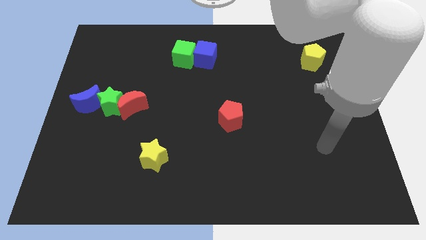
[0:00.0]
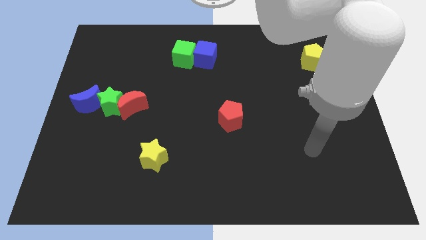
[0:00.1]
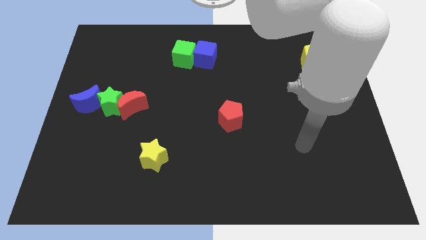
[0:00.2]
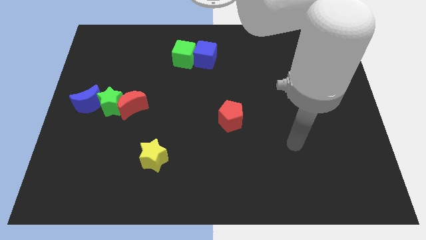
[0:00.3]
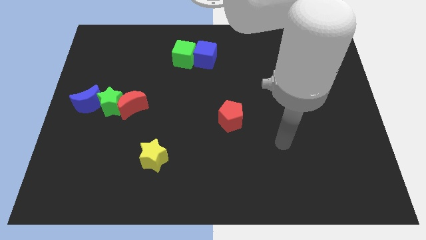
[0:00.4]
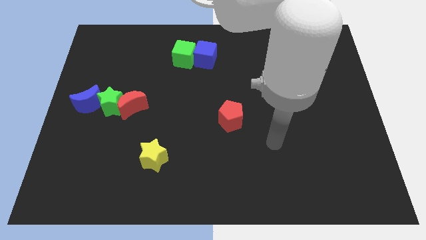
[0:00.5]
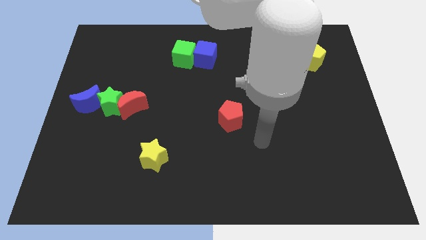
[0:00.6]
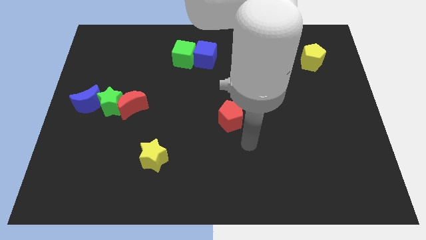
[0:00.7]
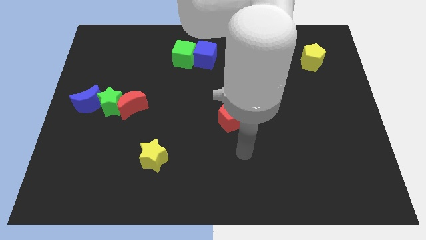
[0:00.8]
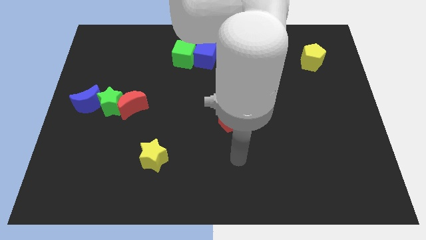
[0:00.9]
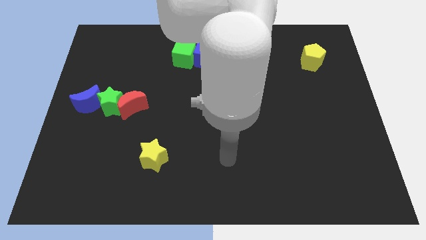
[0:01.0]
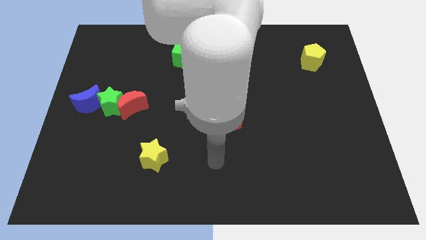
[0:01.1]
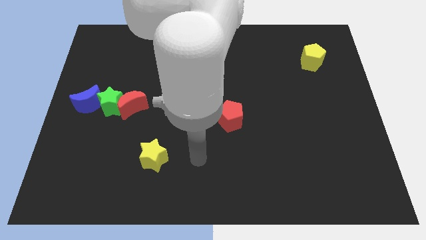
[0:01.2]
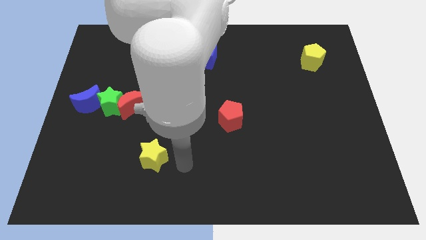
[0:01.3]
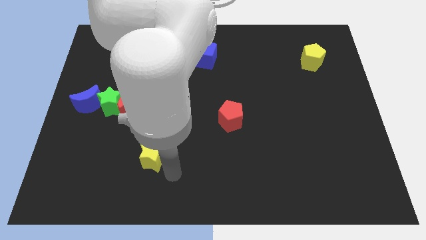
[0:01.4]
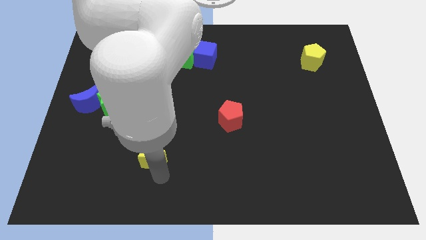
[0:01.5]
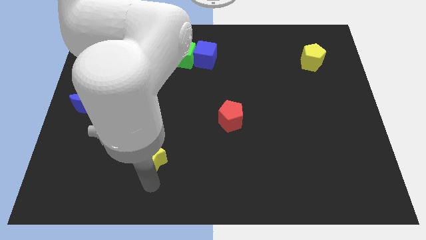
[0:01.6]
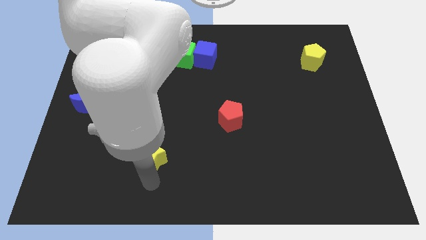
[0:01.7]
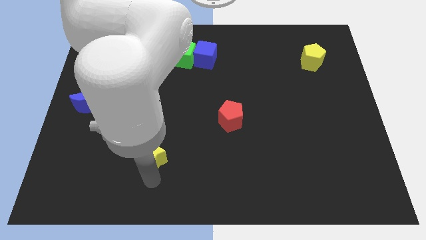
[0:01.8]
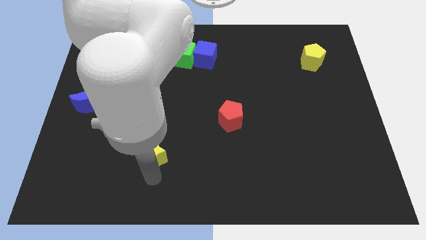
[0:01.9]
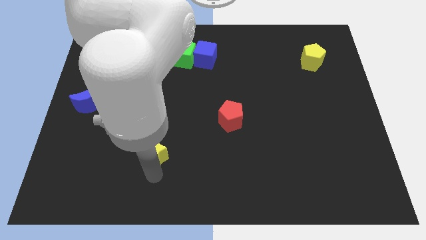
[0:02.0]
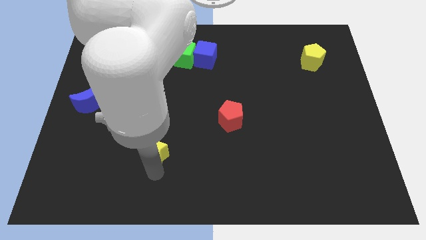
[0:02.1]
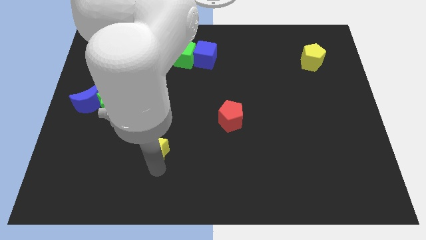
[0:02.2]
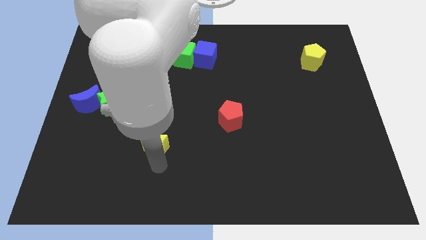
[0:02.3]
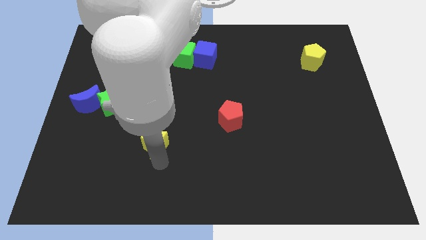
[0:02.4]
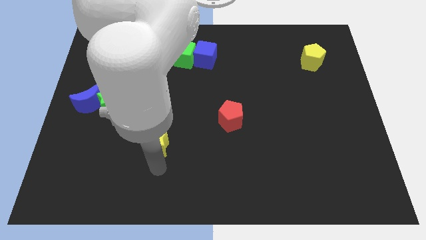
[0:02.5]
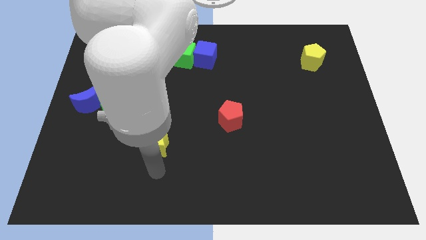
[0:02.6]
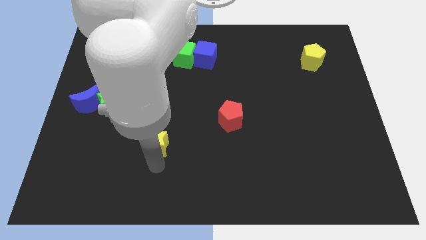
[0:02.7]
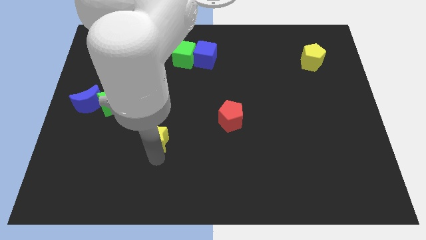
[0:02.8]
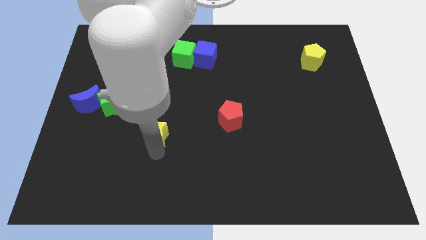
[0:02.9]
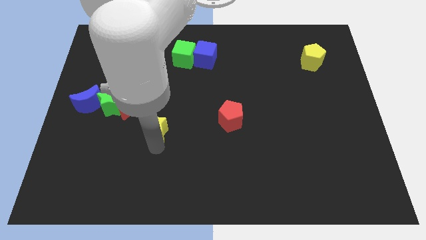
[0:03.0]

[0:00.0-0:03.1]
slightly slide the yellow star upwards

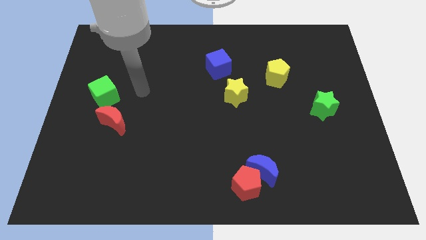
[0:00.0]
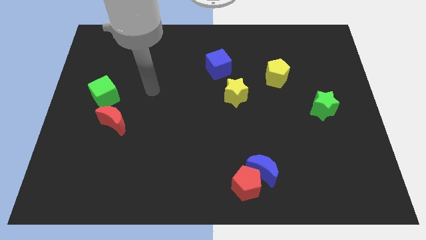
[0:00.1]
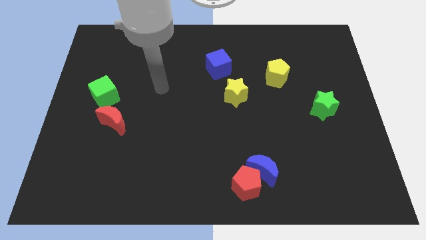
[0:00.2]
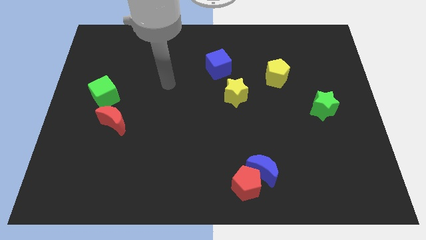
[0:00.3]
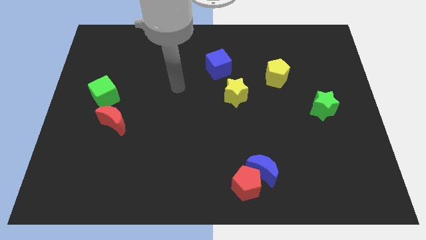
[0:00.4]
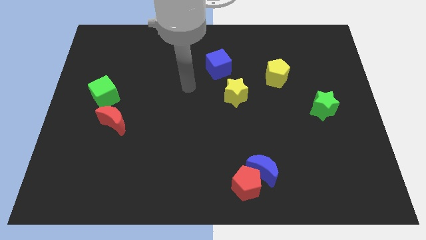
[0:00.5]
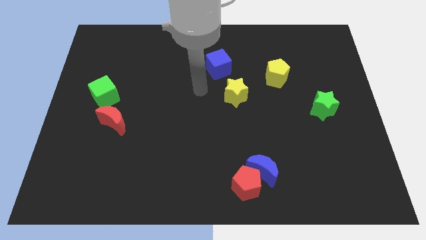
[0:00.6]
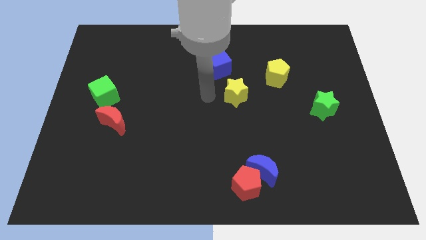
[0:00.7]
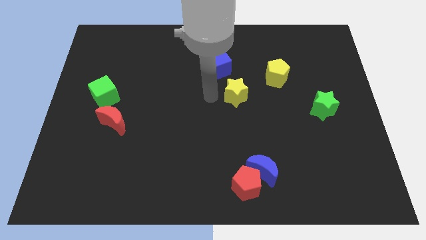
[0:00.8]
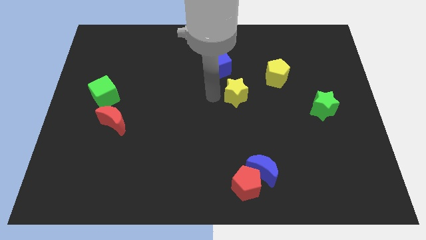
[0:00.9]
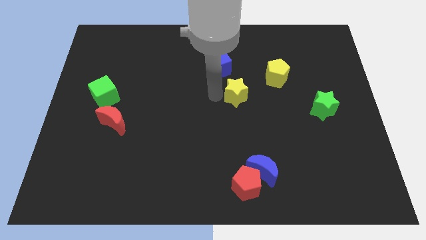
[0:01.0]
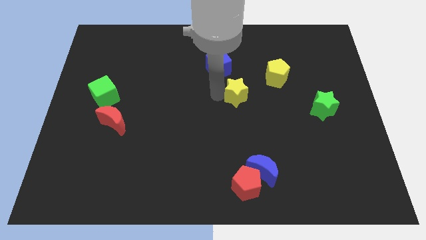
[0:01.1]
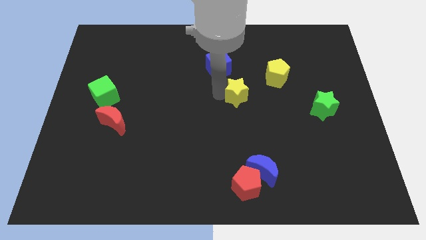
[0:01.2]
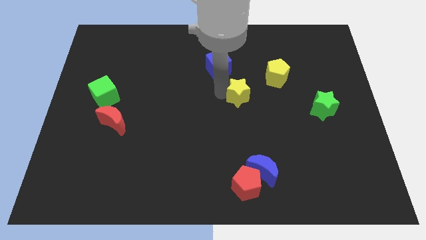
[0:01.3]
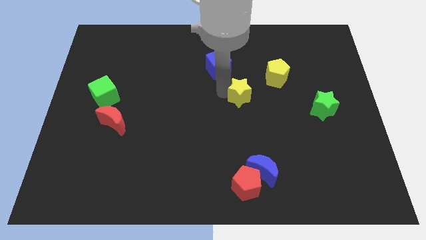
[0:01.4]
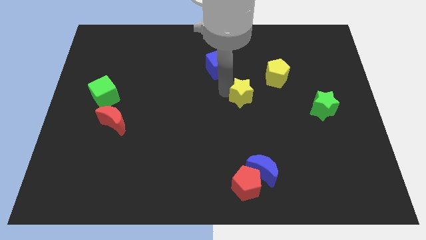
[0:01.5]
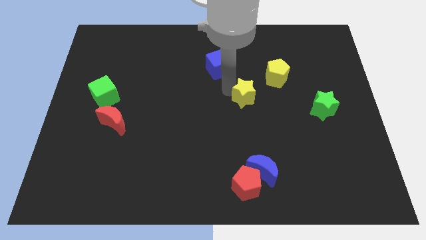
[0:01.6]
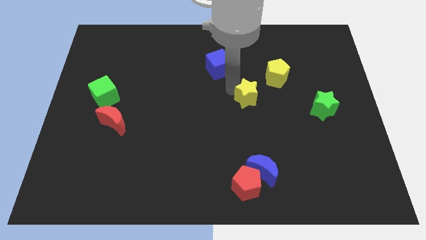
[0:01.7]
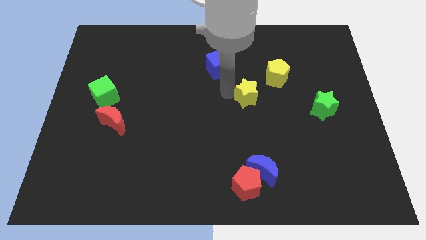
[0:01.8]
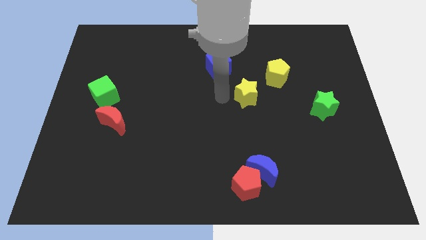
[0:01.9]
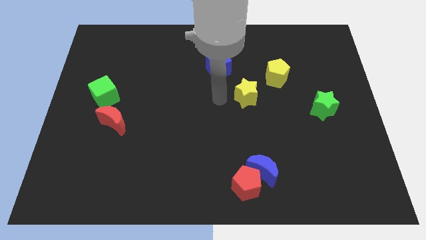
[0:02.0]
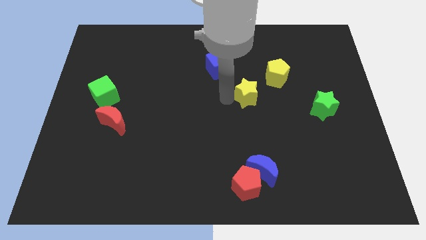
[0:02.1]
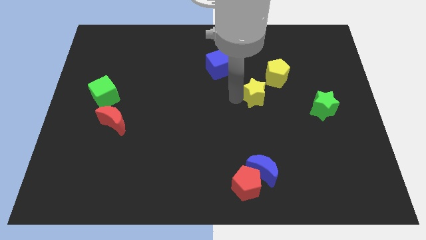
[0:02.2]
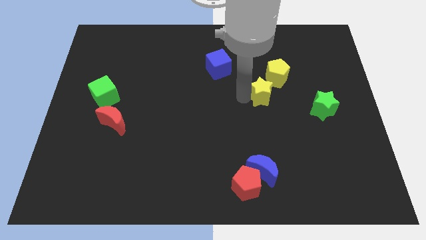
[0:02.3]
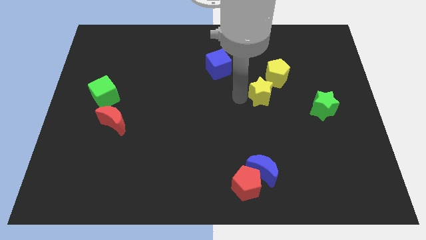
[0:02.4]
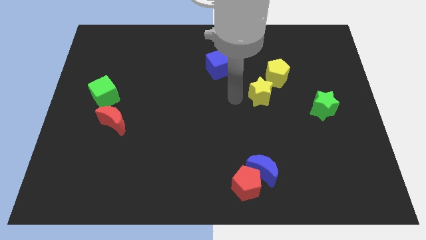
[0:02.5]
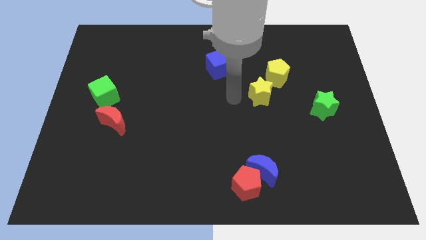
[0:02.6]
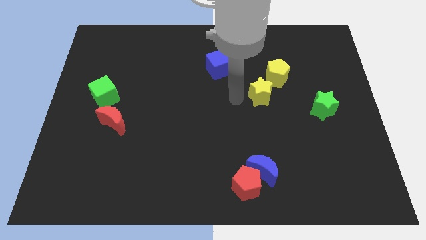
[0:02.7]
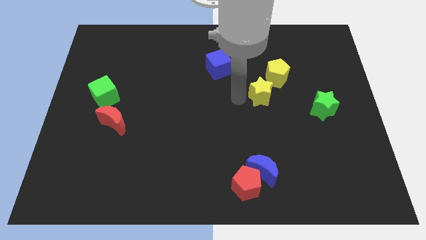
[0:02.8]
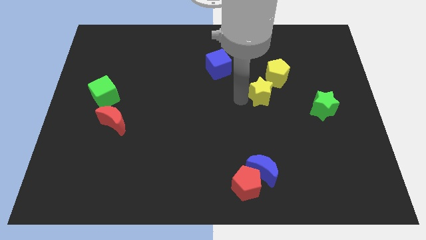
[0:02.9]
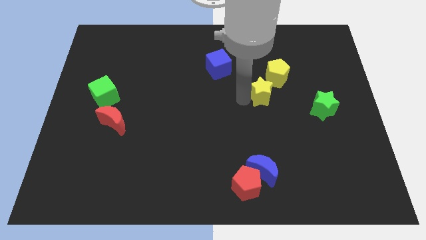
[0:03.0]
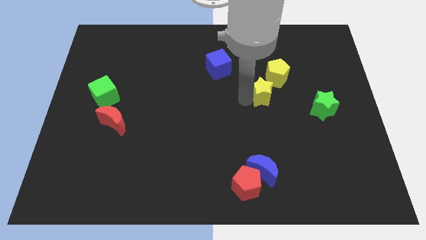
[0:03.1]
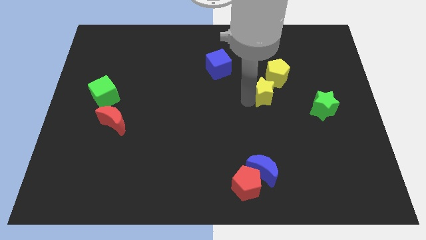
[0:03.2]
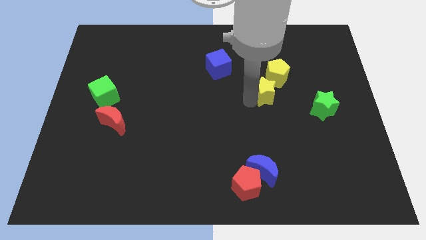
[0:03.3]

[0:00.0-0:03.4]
push the yellow star a little bit right

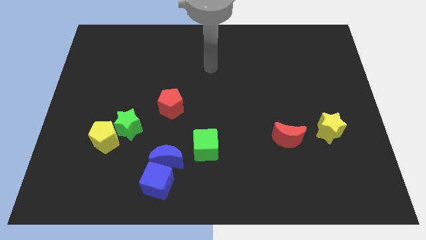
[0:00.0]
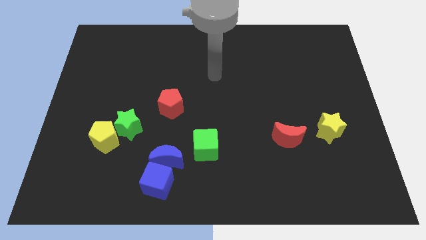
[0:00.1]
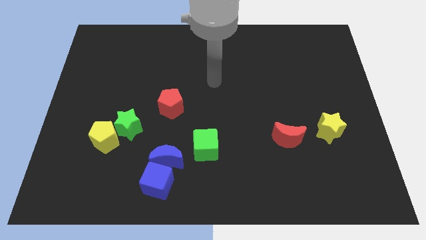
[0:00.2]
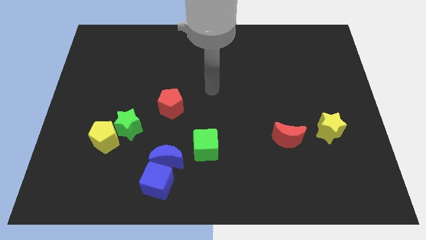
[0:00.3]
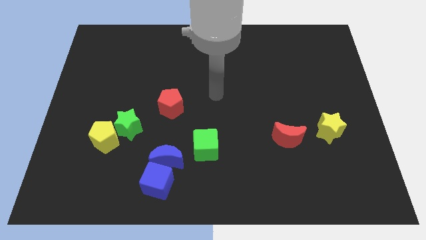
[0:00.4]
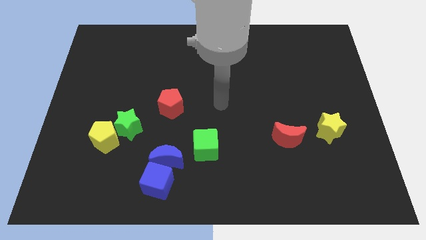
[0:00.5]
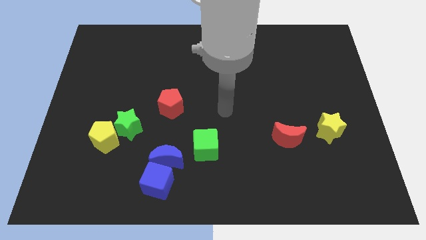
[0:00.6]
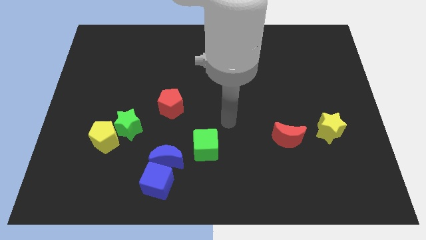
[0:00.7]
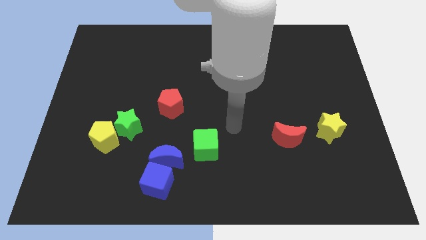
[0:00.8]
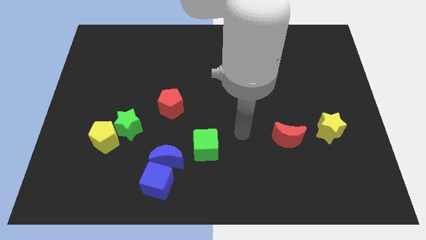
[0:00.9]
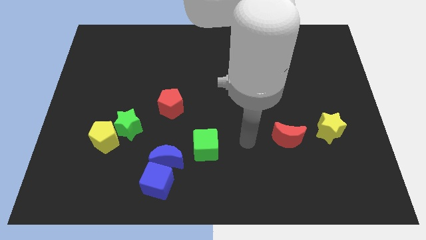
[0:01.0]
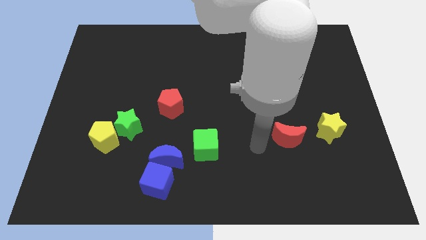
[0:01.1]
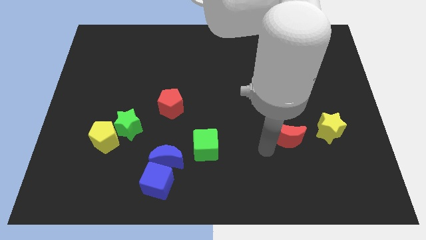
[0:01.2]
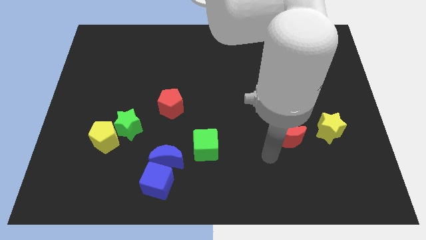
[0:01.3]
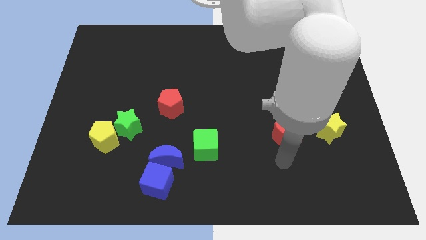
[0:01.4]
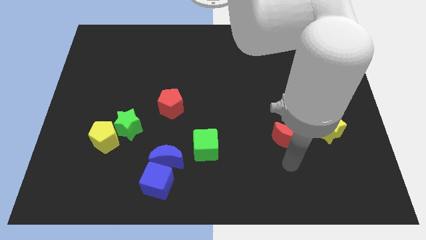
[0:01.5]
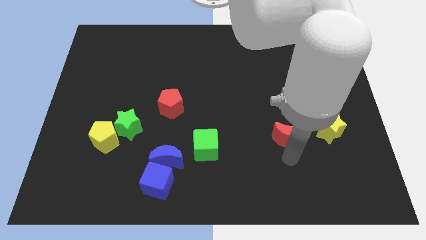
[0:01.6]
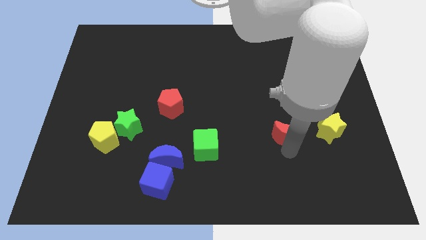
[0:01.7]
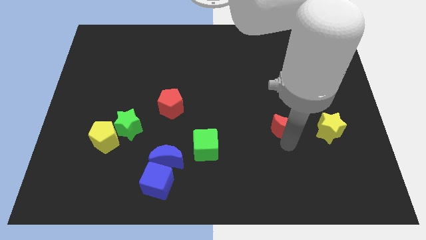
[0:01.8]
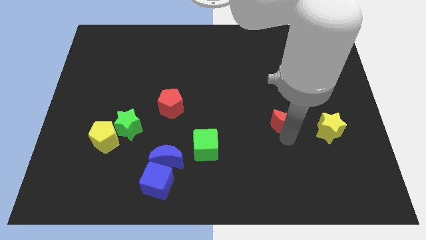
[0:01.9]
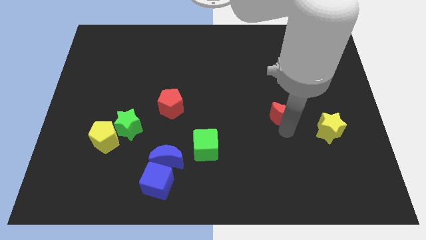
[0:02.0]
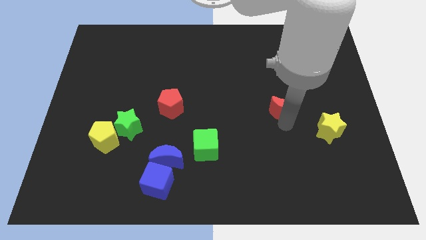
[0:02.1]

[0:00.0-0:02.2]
move the red moon up slightly
